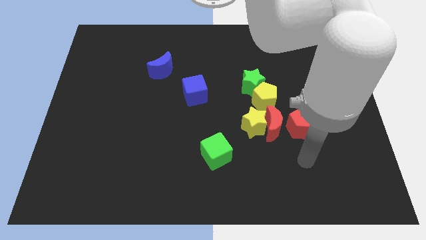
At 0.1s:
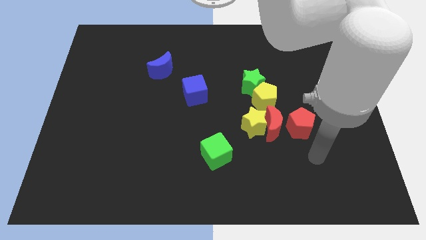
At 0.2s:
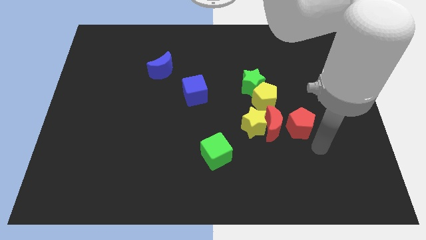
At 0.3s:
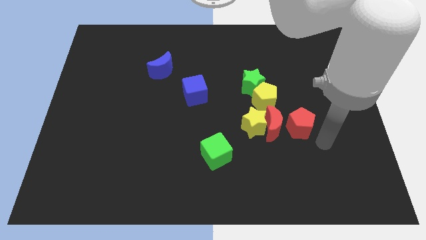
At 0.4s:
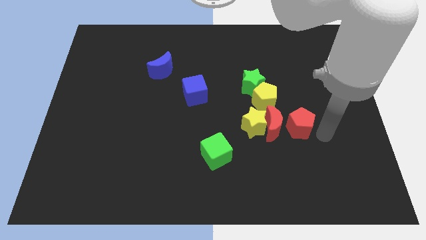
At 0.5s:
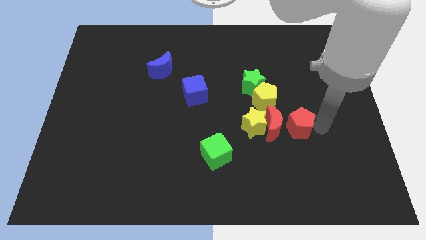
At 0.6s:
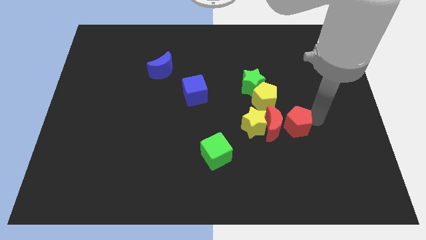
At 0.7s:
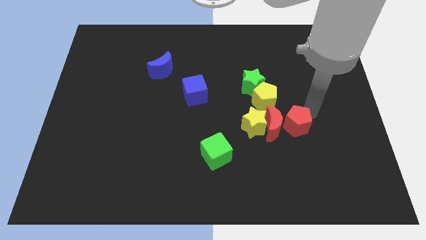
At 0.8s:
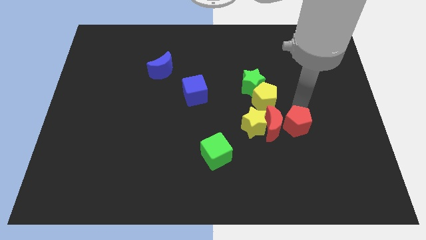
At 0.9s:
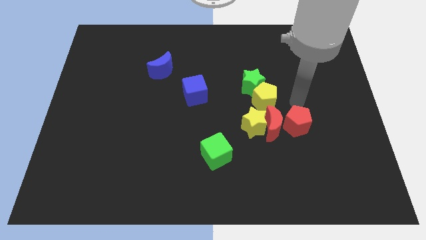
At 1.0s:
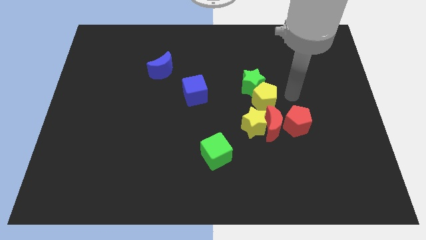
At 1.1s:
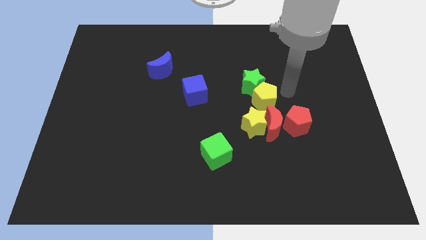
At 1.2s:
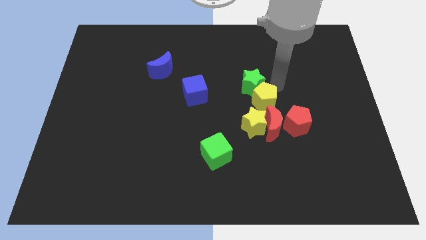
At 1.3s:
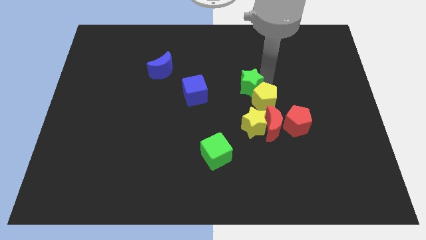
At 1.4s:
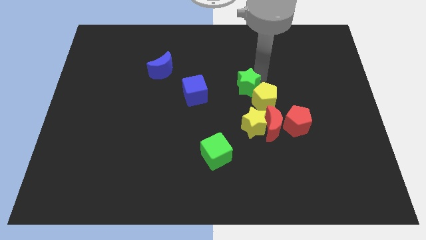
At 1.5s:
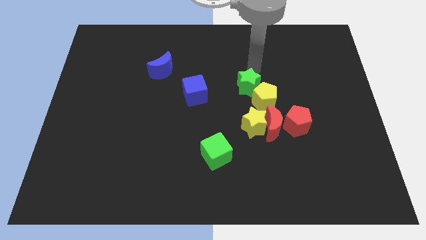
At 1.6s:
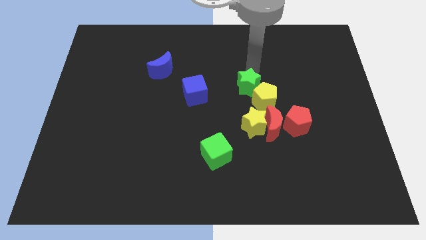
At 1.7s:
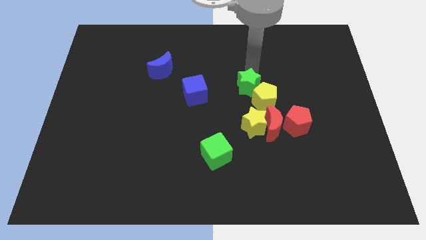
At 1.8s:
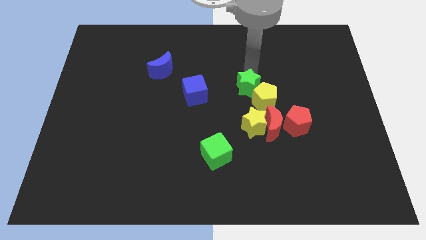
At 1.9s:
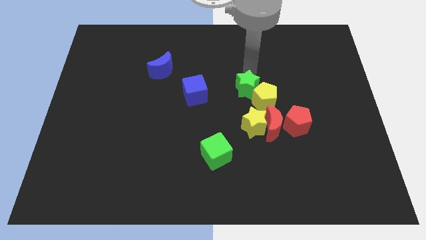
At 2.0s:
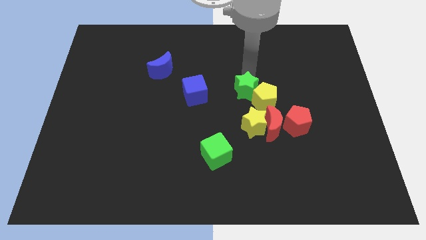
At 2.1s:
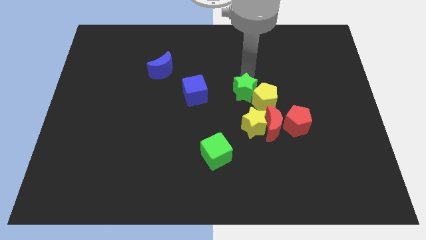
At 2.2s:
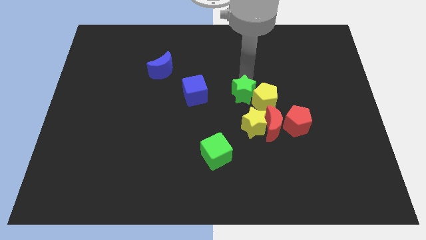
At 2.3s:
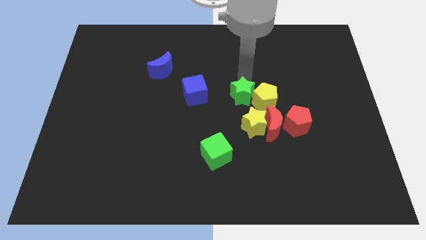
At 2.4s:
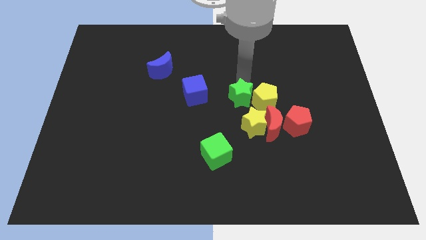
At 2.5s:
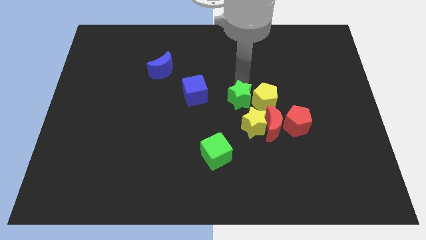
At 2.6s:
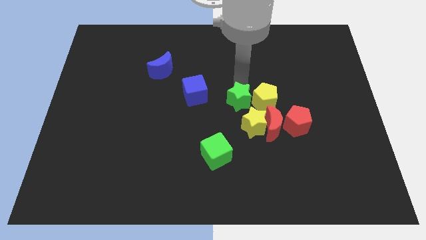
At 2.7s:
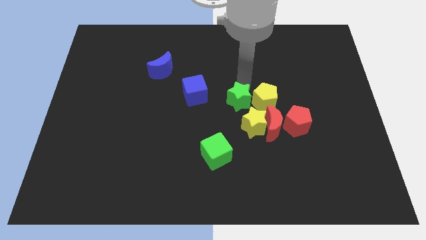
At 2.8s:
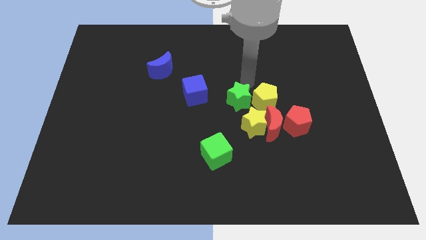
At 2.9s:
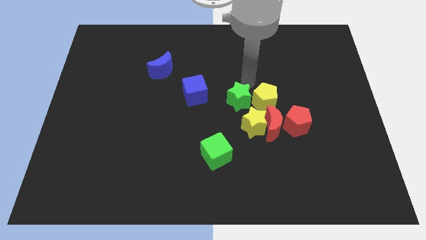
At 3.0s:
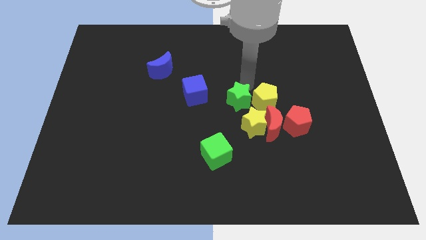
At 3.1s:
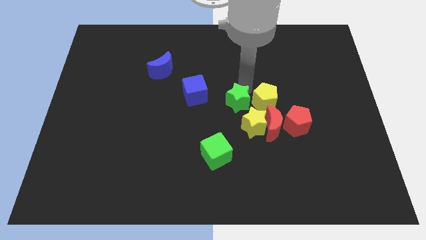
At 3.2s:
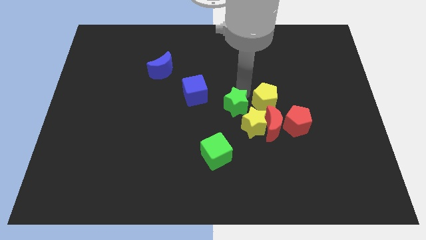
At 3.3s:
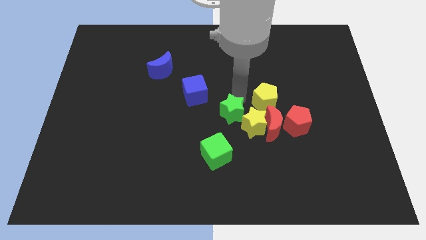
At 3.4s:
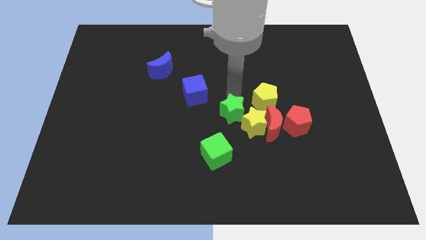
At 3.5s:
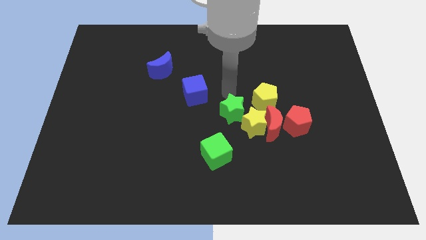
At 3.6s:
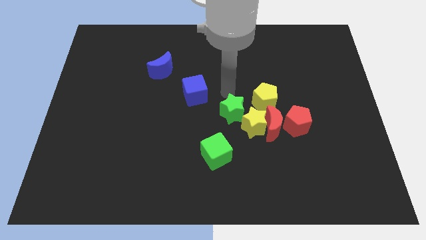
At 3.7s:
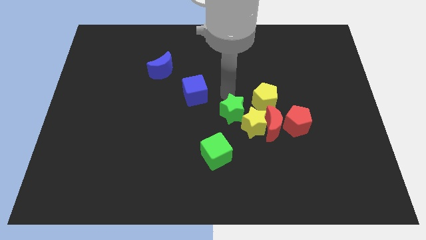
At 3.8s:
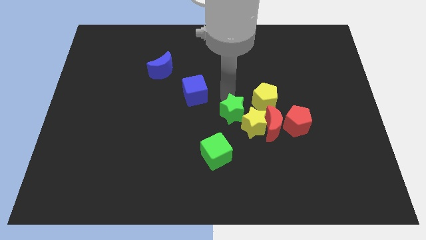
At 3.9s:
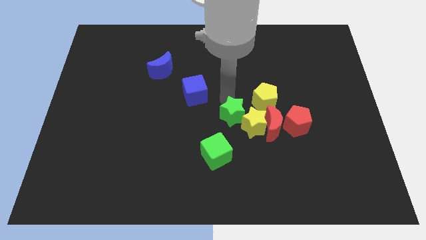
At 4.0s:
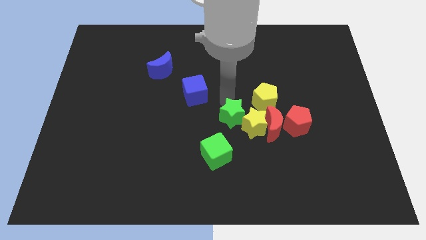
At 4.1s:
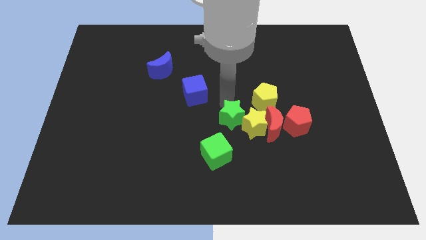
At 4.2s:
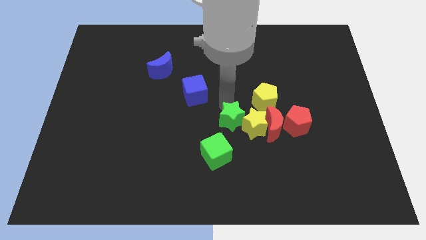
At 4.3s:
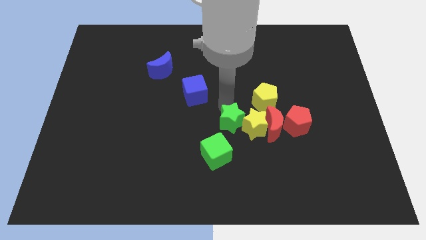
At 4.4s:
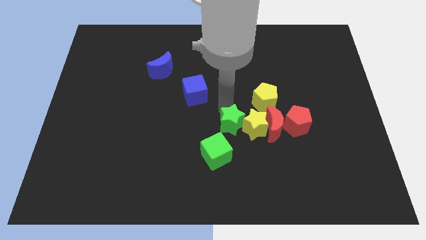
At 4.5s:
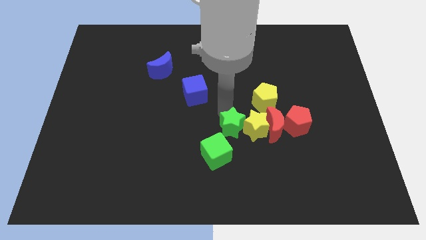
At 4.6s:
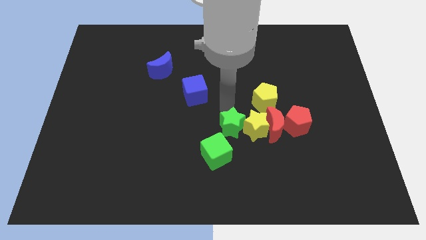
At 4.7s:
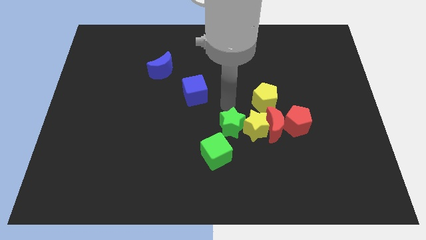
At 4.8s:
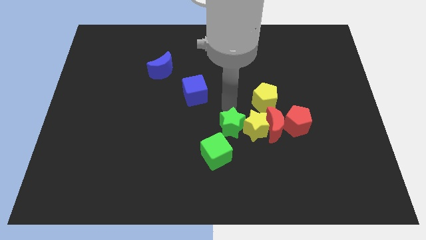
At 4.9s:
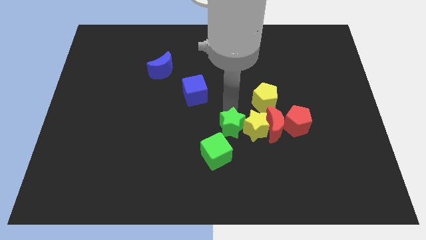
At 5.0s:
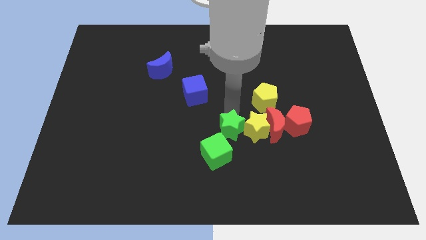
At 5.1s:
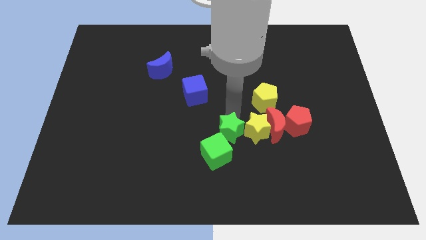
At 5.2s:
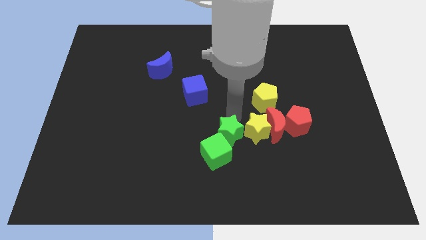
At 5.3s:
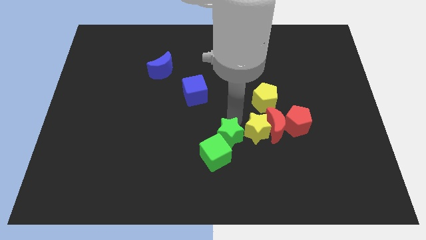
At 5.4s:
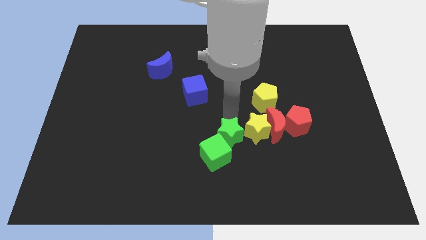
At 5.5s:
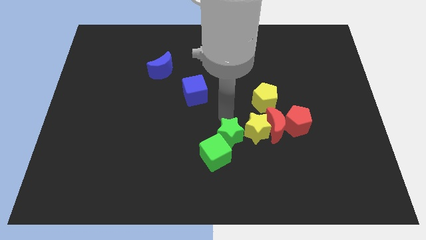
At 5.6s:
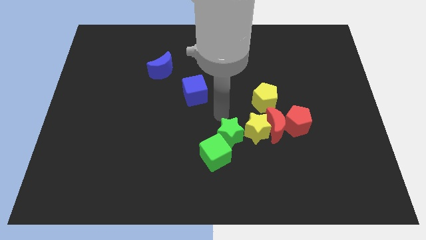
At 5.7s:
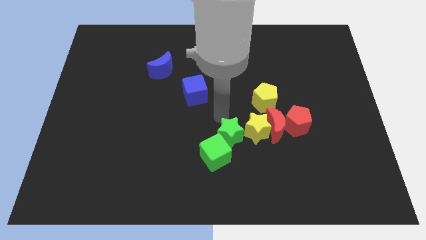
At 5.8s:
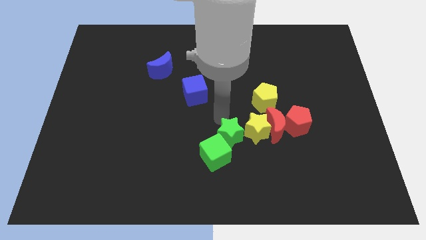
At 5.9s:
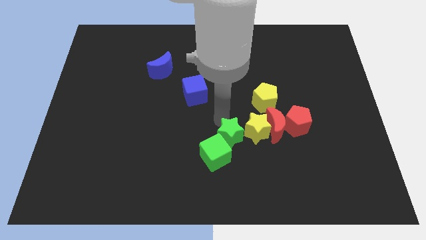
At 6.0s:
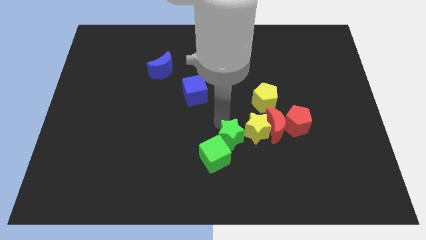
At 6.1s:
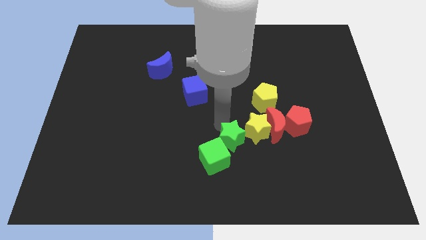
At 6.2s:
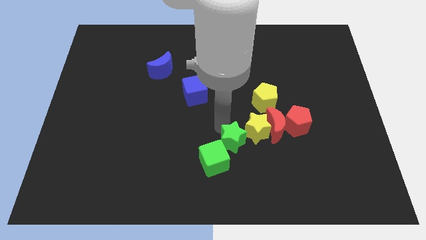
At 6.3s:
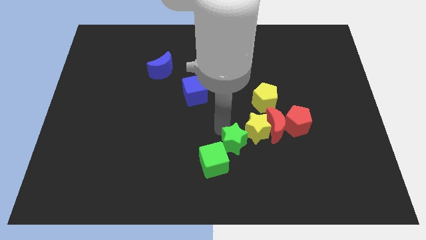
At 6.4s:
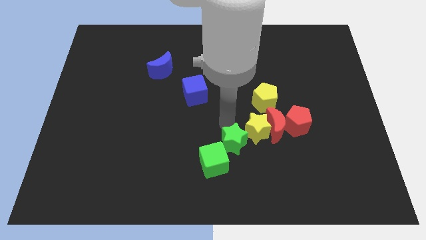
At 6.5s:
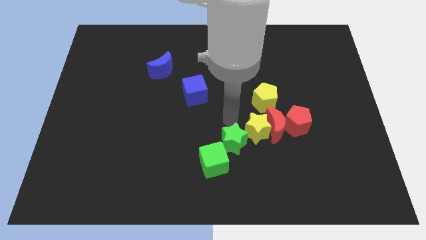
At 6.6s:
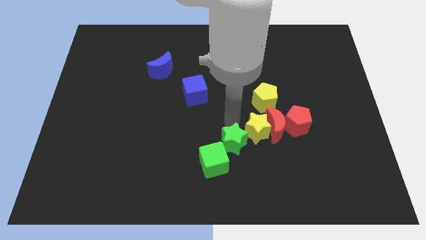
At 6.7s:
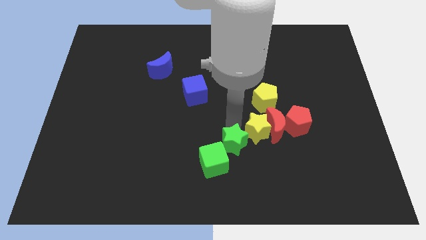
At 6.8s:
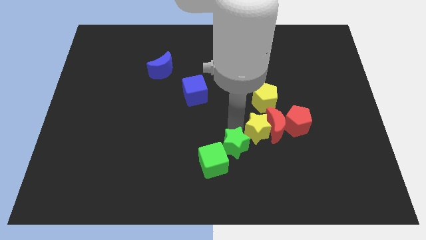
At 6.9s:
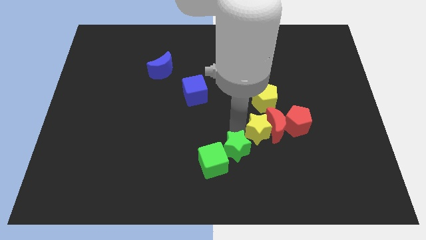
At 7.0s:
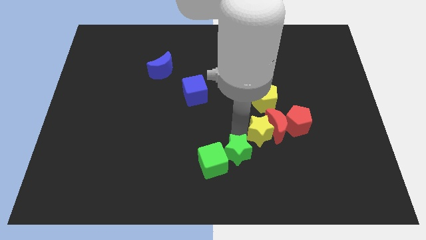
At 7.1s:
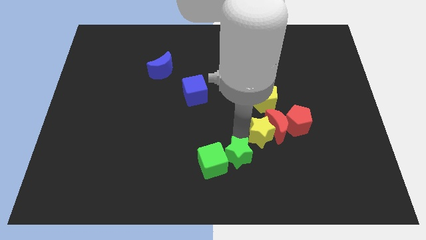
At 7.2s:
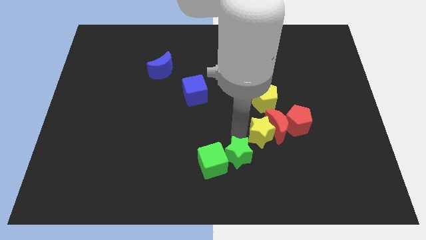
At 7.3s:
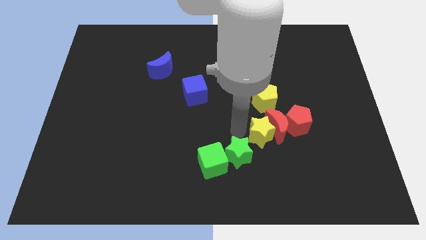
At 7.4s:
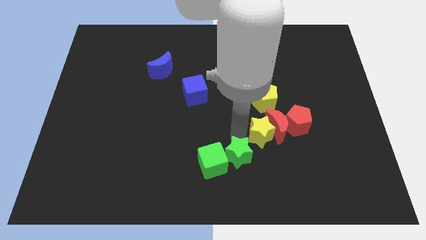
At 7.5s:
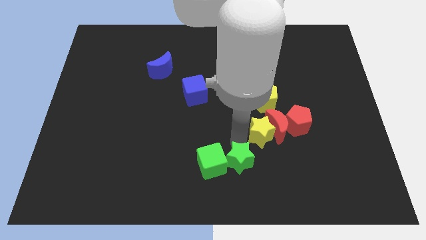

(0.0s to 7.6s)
slide the green star to the bottom right side of the green cube
